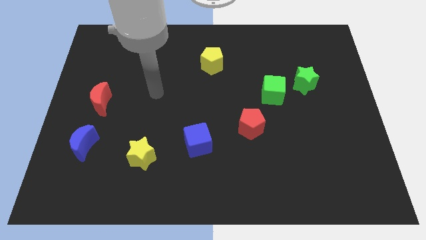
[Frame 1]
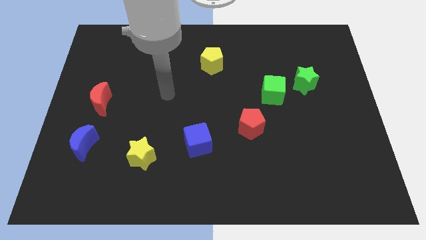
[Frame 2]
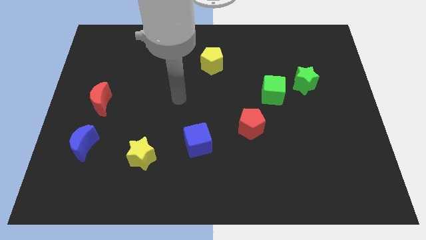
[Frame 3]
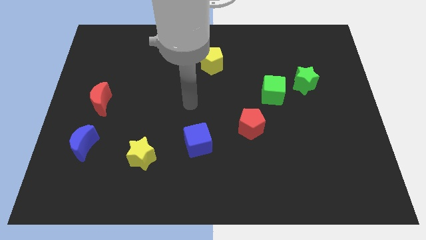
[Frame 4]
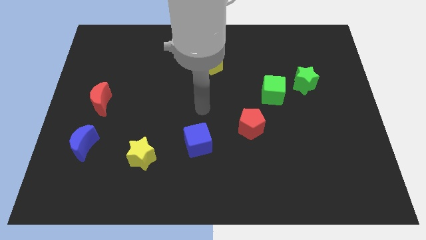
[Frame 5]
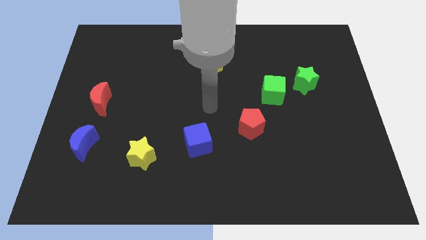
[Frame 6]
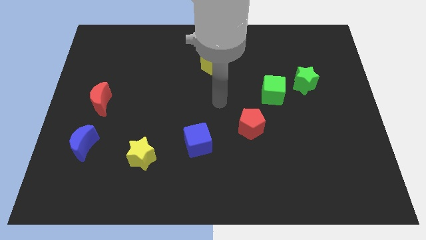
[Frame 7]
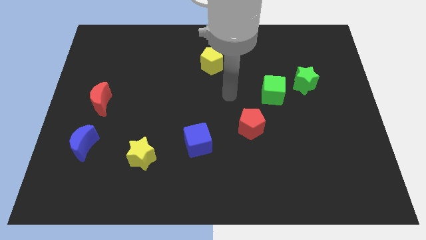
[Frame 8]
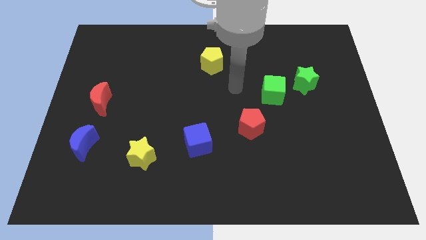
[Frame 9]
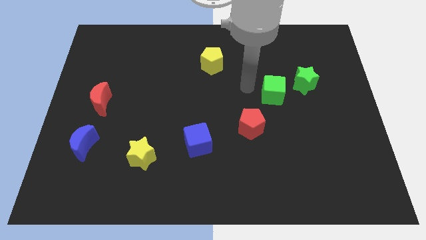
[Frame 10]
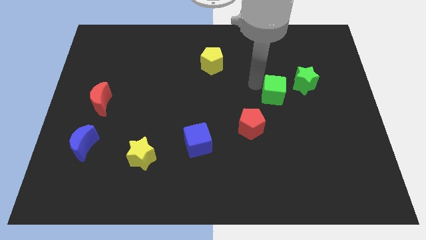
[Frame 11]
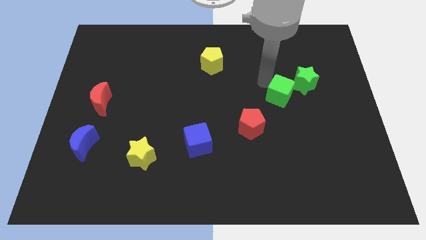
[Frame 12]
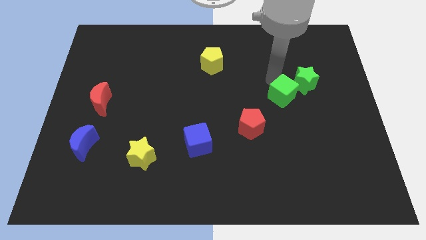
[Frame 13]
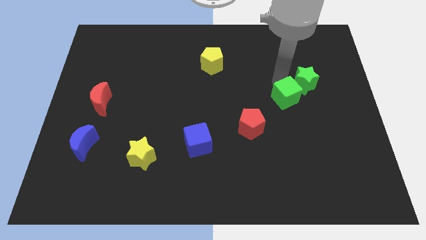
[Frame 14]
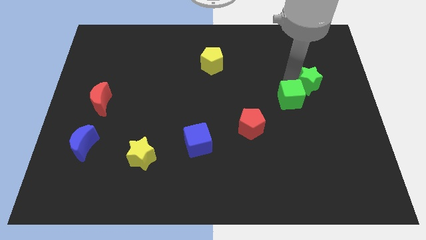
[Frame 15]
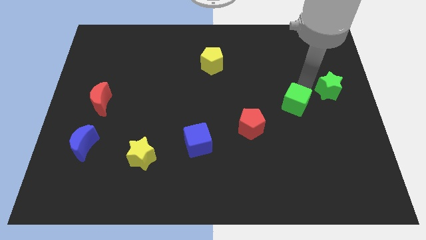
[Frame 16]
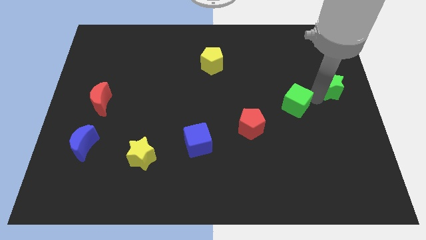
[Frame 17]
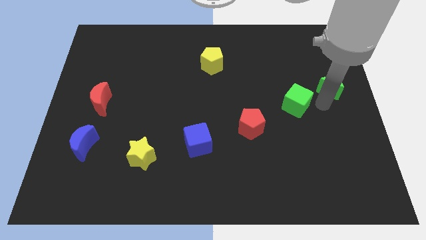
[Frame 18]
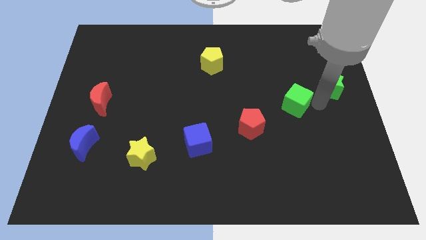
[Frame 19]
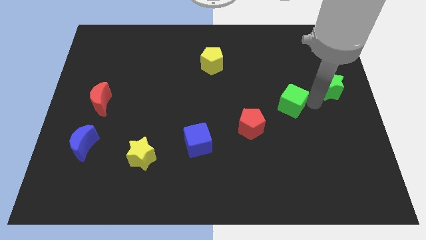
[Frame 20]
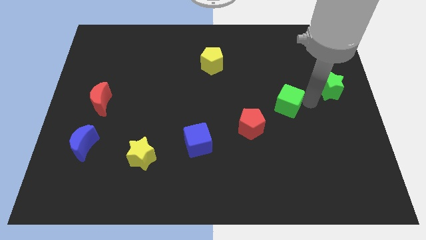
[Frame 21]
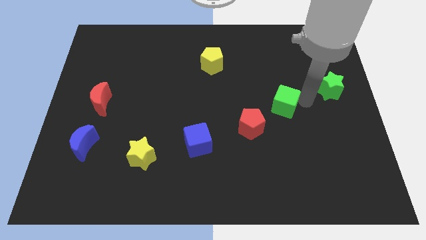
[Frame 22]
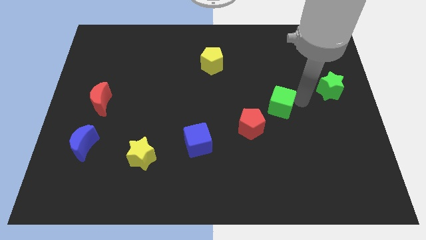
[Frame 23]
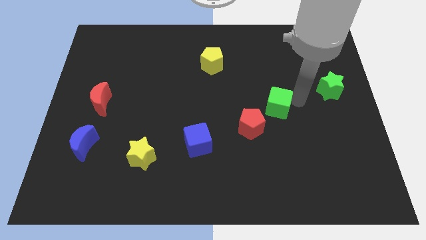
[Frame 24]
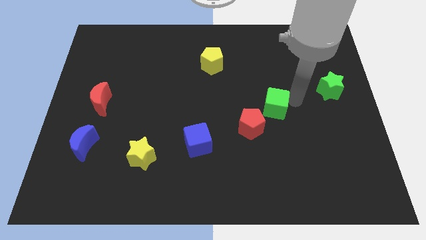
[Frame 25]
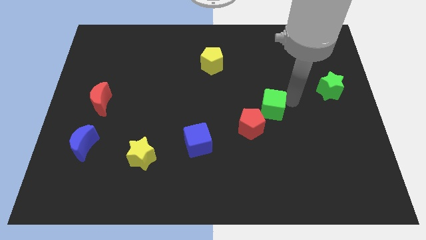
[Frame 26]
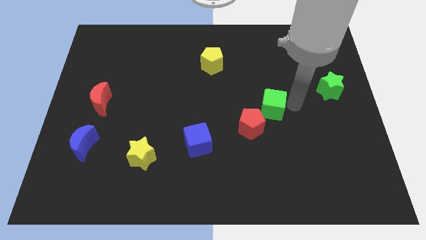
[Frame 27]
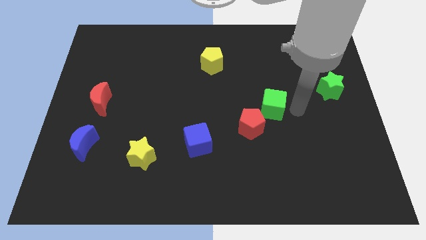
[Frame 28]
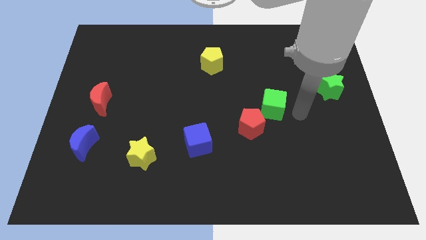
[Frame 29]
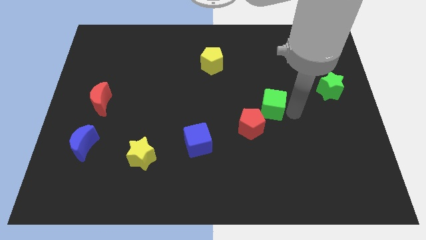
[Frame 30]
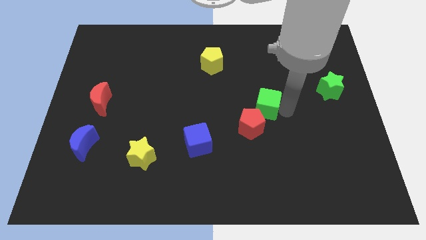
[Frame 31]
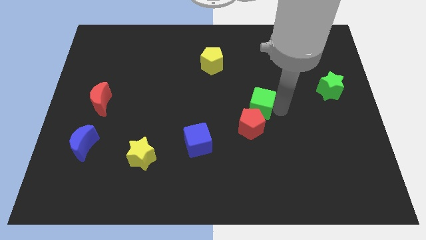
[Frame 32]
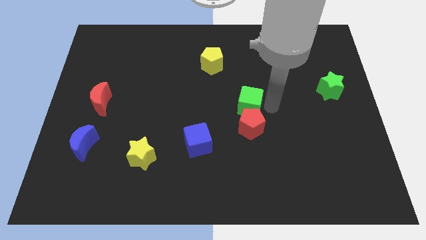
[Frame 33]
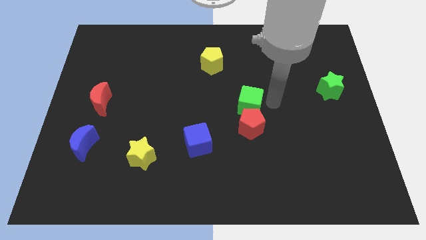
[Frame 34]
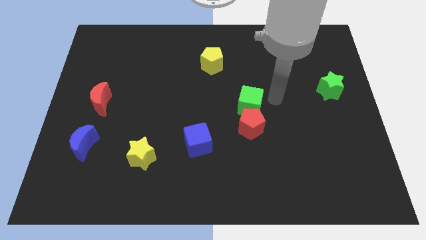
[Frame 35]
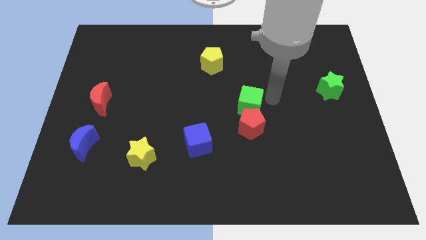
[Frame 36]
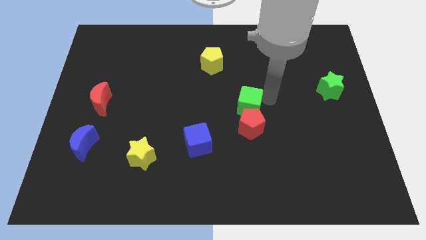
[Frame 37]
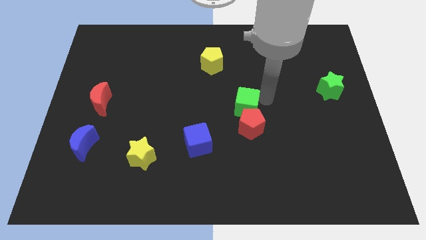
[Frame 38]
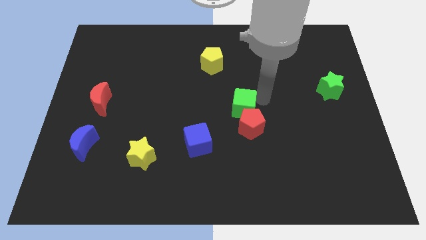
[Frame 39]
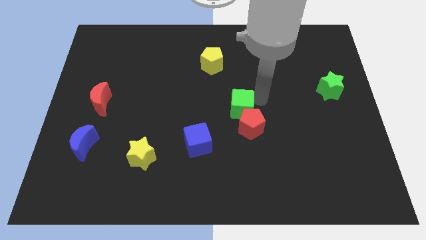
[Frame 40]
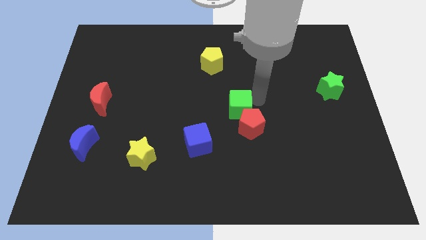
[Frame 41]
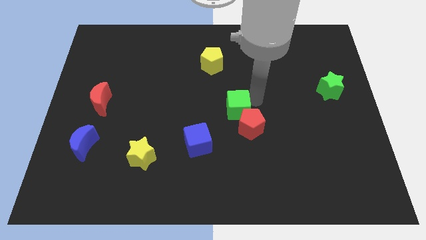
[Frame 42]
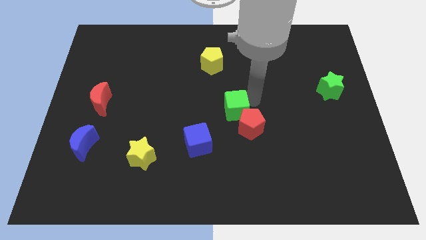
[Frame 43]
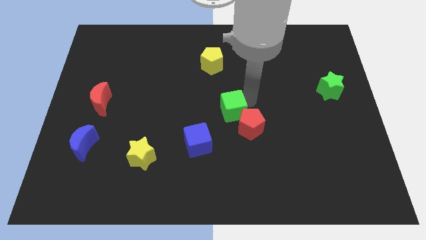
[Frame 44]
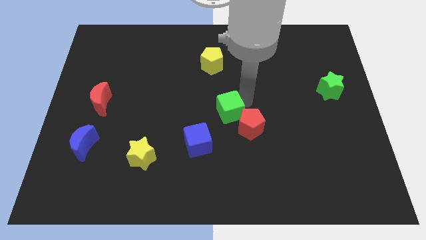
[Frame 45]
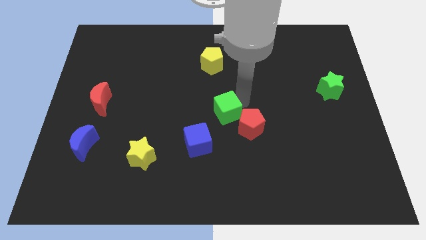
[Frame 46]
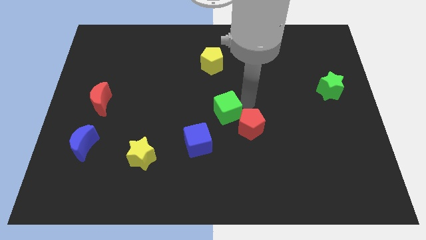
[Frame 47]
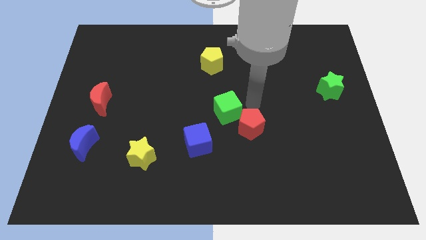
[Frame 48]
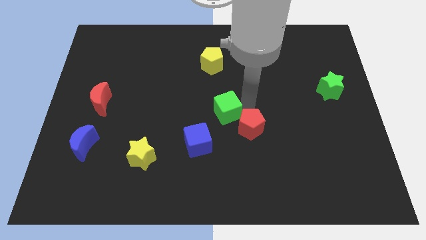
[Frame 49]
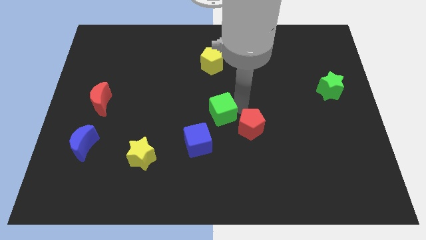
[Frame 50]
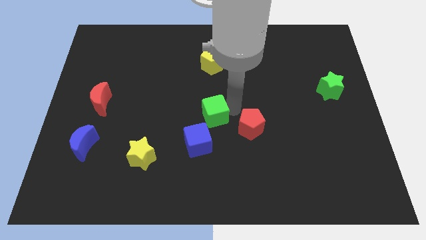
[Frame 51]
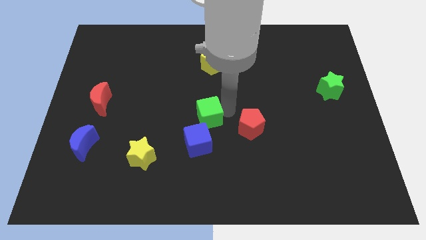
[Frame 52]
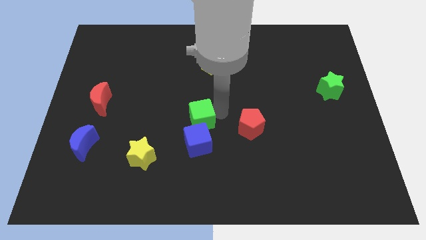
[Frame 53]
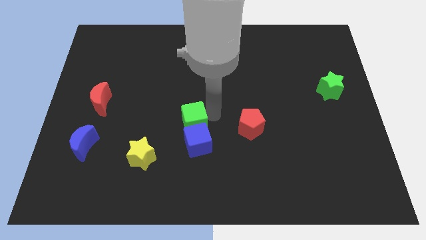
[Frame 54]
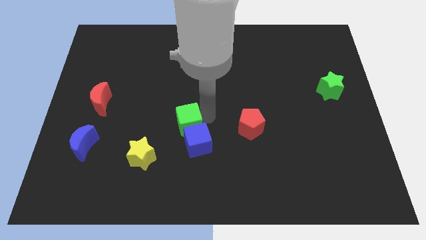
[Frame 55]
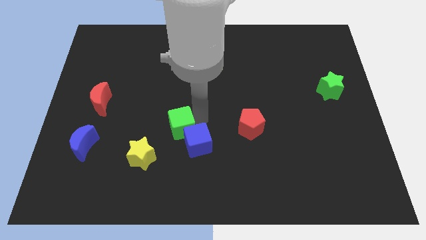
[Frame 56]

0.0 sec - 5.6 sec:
move the green cube just left of the blue cube

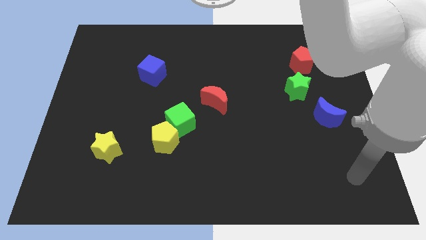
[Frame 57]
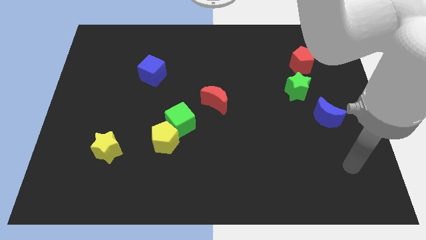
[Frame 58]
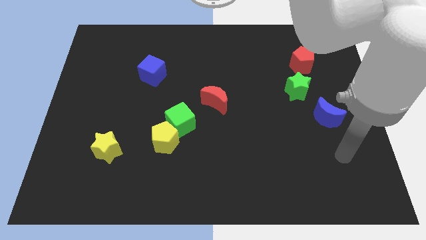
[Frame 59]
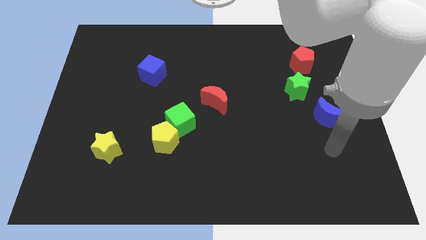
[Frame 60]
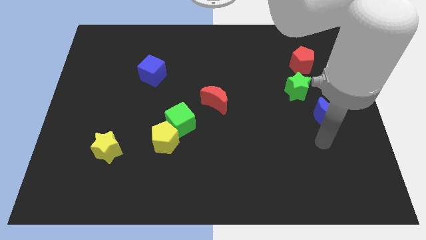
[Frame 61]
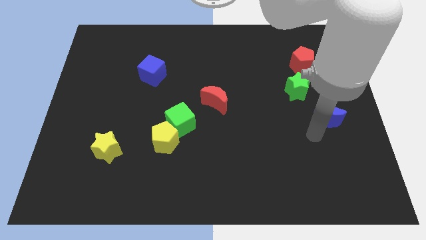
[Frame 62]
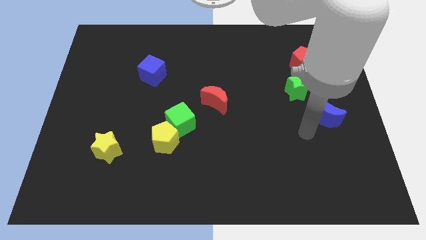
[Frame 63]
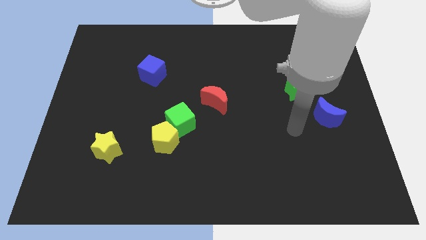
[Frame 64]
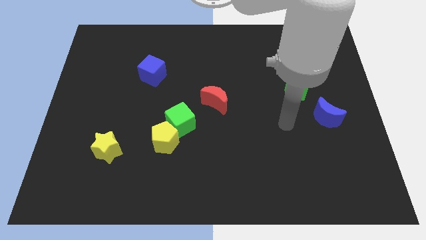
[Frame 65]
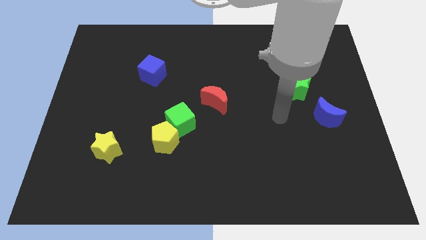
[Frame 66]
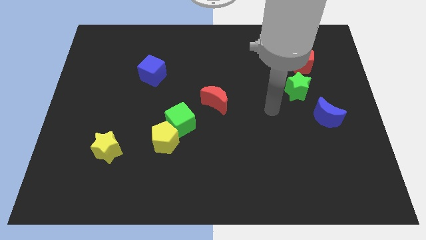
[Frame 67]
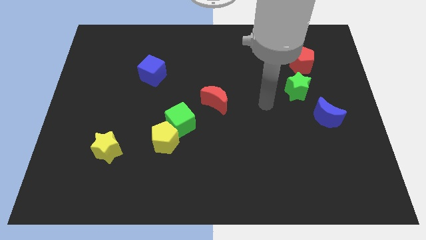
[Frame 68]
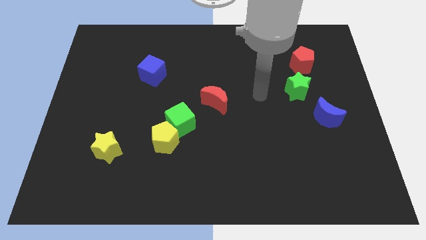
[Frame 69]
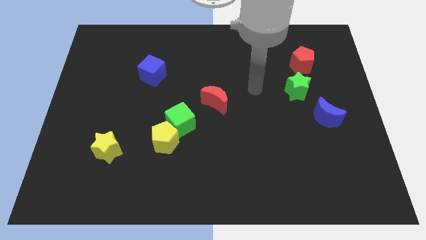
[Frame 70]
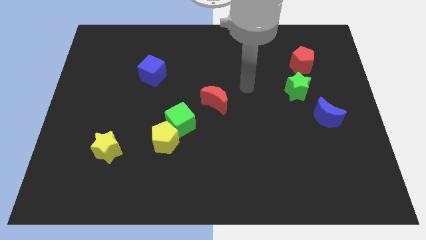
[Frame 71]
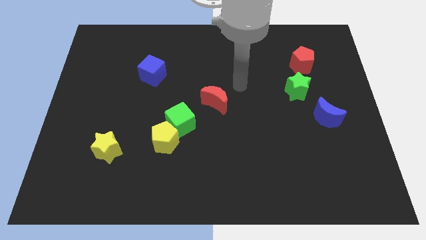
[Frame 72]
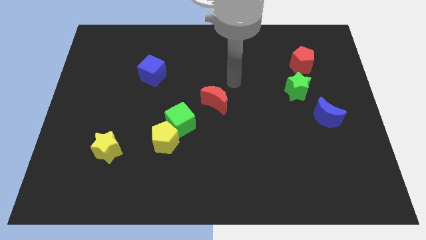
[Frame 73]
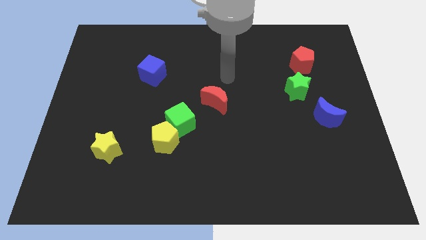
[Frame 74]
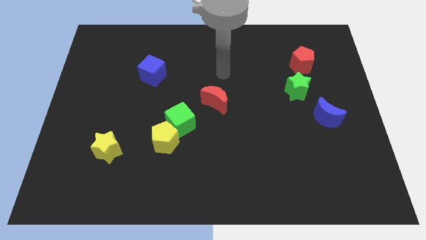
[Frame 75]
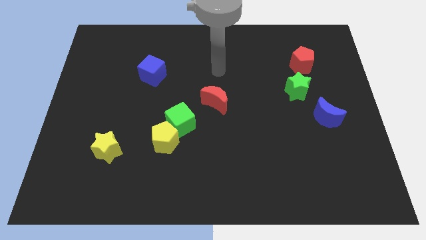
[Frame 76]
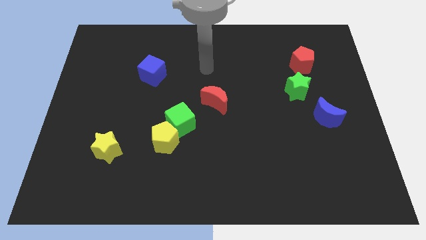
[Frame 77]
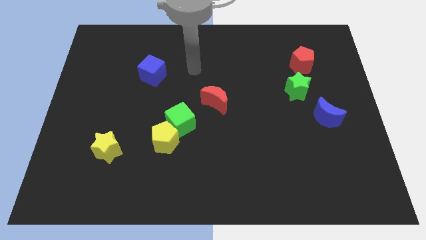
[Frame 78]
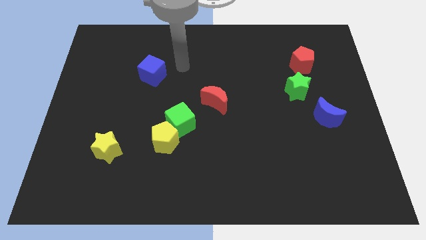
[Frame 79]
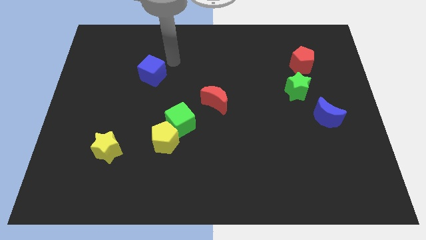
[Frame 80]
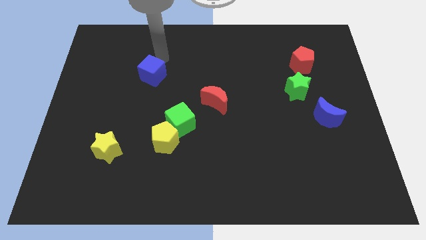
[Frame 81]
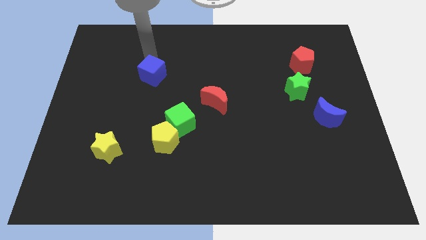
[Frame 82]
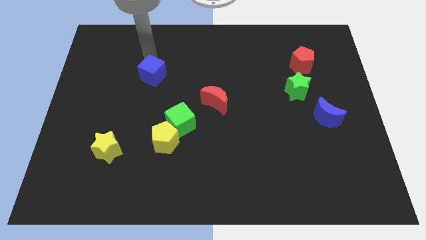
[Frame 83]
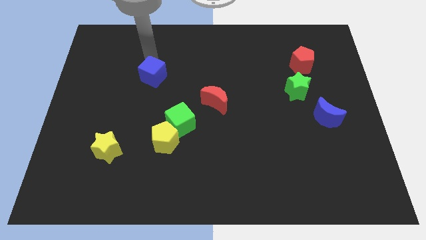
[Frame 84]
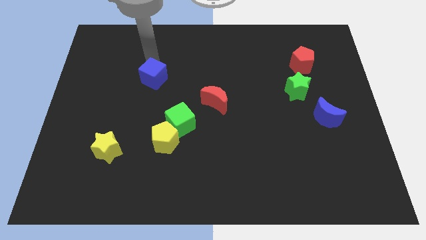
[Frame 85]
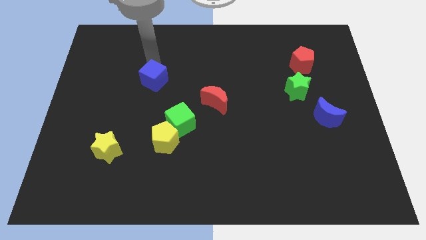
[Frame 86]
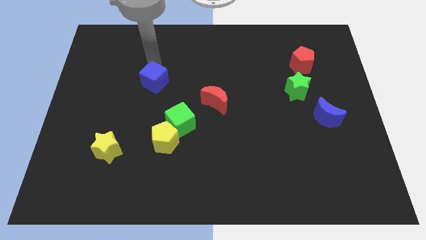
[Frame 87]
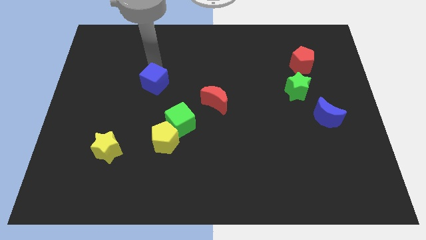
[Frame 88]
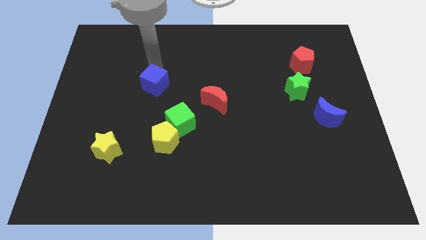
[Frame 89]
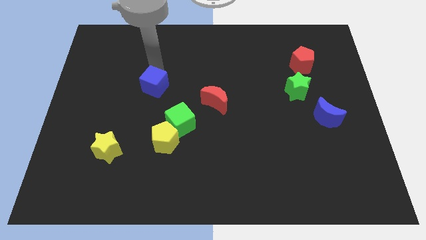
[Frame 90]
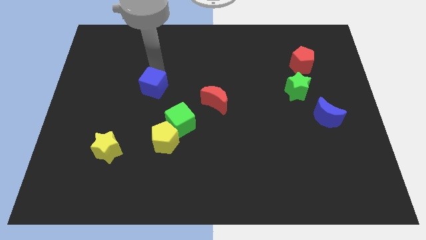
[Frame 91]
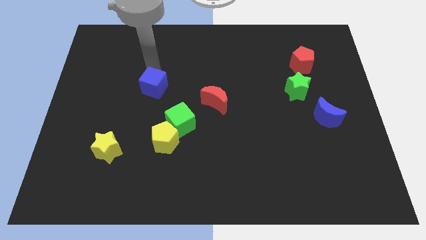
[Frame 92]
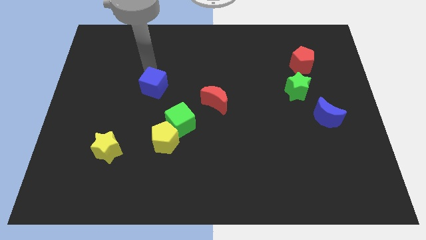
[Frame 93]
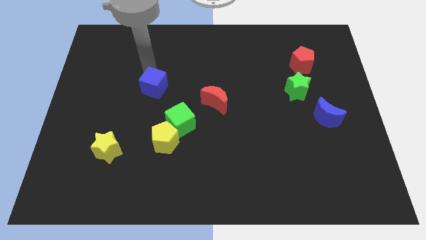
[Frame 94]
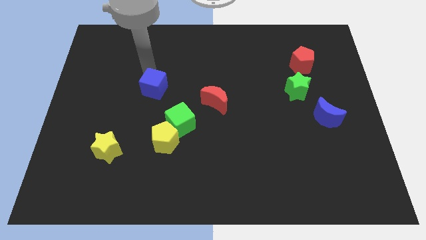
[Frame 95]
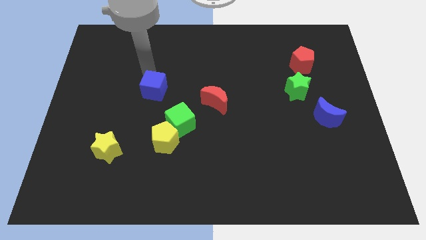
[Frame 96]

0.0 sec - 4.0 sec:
slide the blue cube diagonally up and to the left of the green cube
